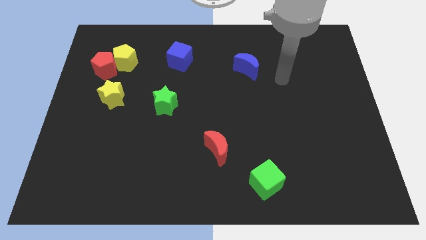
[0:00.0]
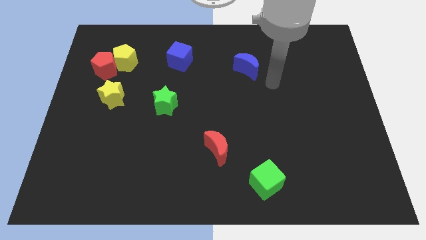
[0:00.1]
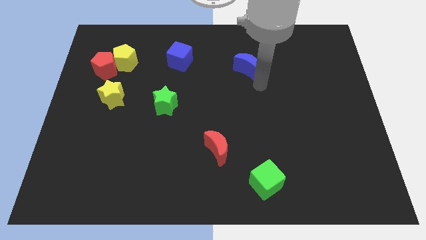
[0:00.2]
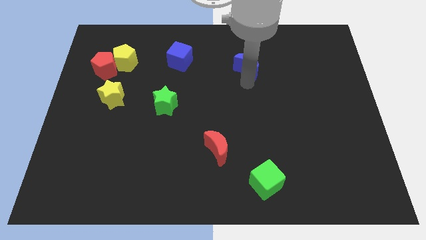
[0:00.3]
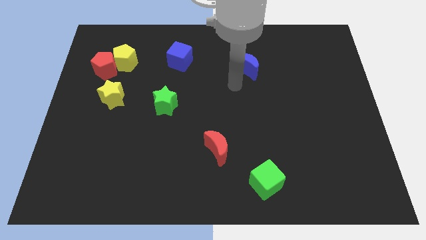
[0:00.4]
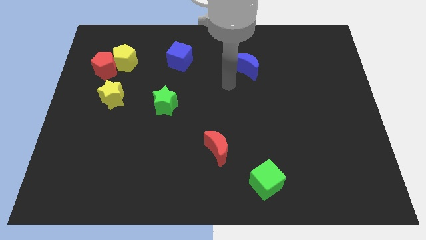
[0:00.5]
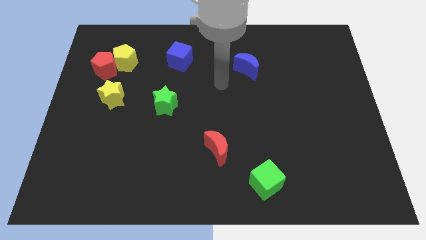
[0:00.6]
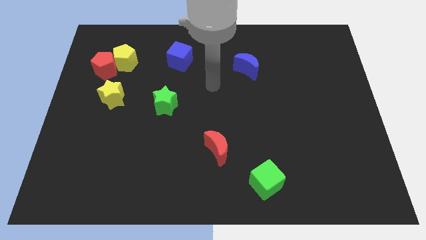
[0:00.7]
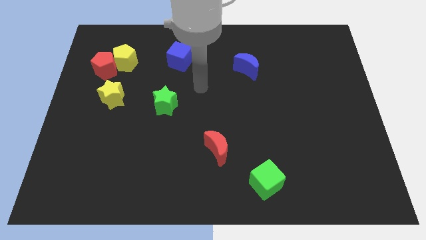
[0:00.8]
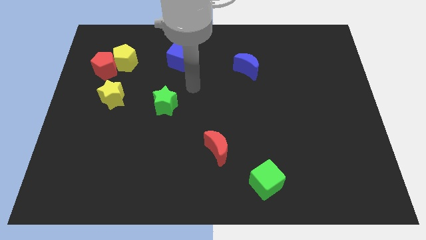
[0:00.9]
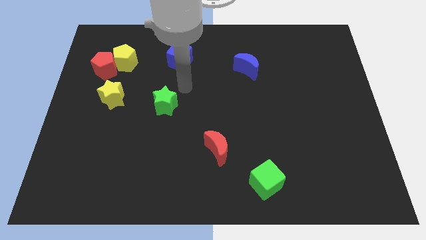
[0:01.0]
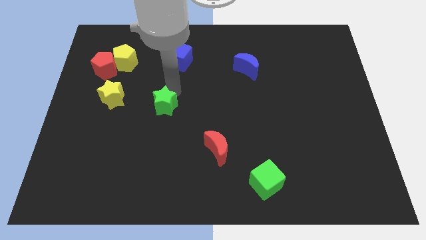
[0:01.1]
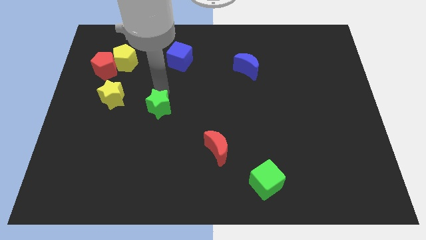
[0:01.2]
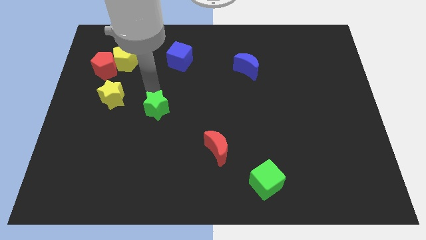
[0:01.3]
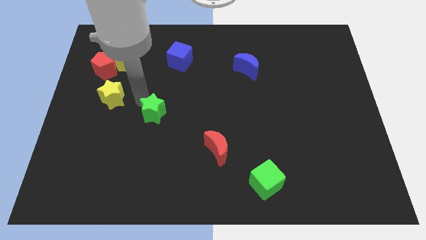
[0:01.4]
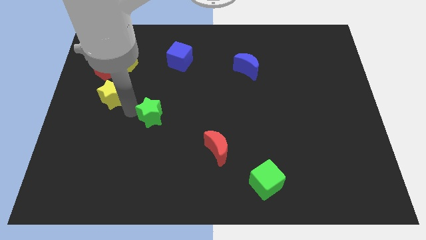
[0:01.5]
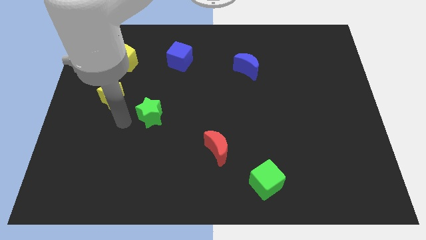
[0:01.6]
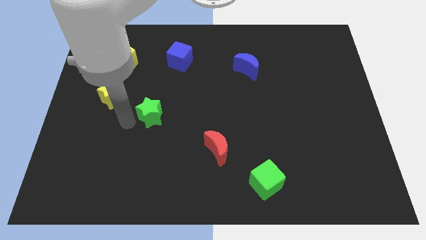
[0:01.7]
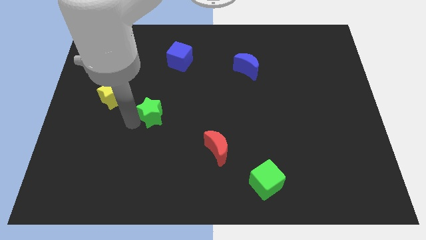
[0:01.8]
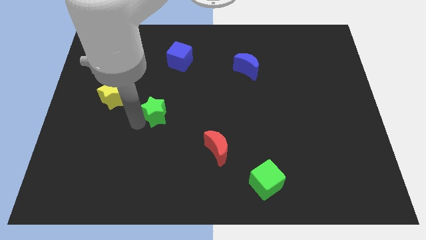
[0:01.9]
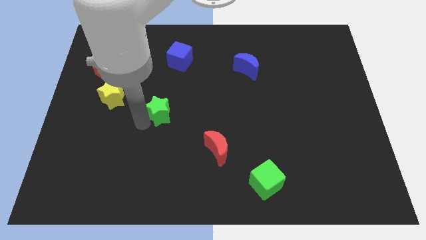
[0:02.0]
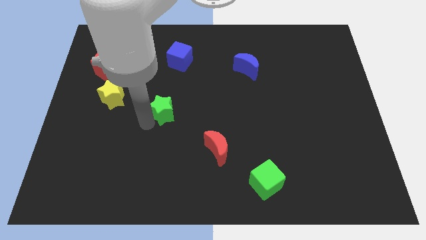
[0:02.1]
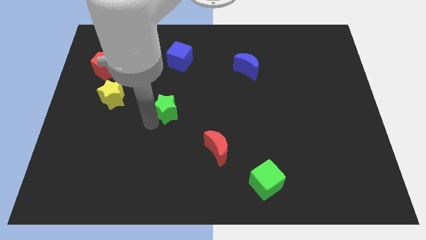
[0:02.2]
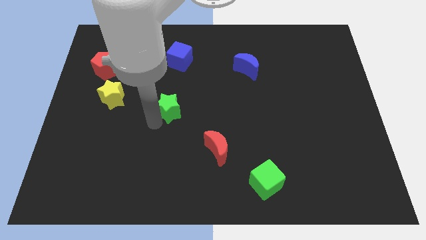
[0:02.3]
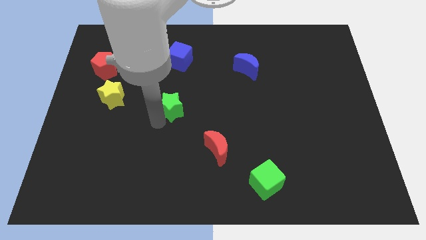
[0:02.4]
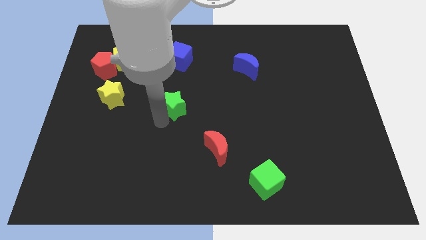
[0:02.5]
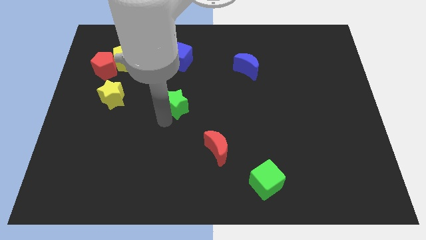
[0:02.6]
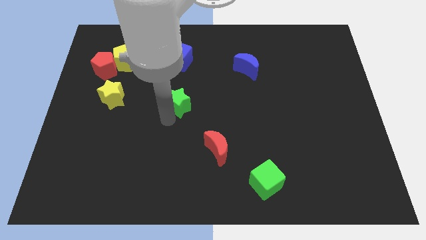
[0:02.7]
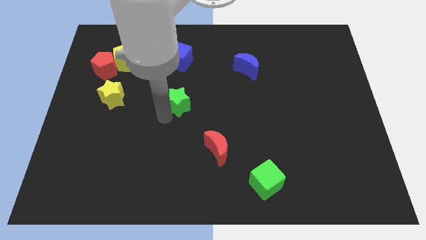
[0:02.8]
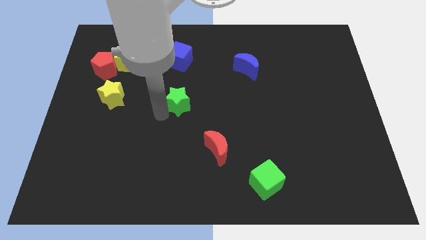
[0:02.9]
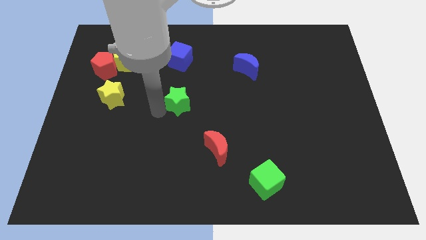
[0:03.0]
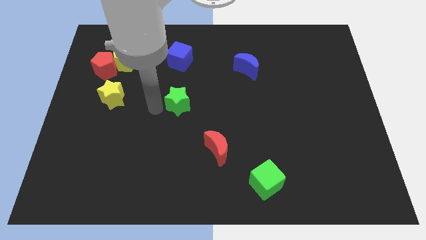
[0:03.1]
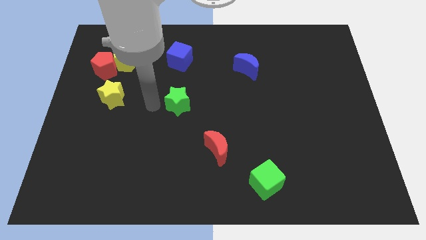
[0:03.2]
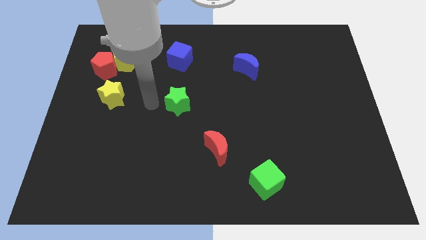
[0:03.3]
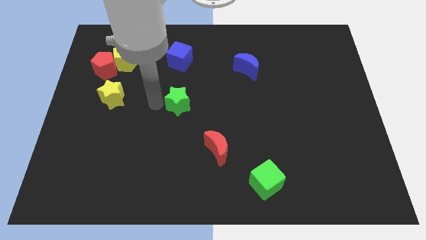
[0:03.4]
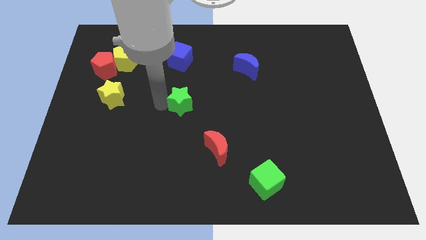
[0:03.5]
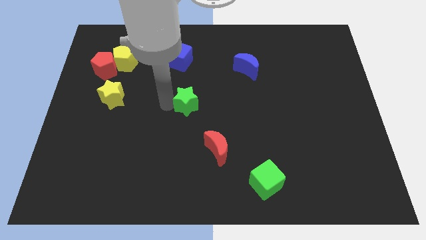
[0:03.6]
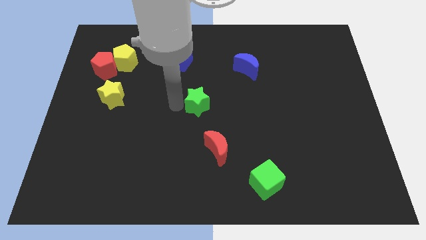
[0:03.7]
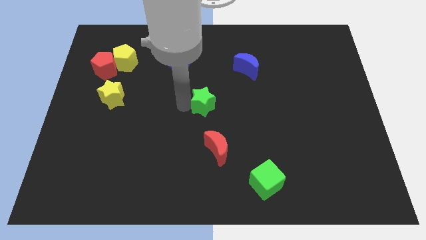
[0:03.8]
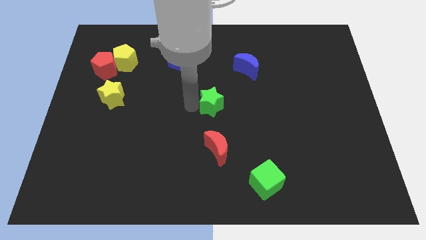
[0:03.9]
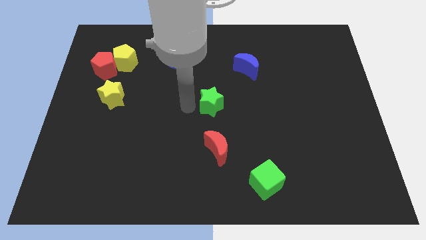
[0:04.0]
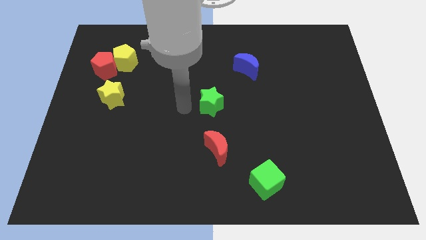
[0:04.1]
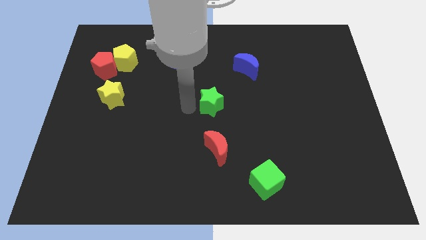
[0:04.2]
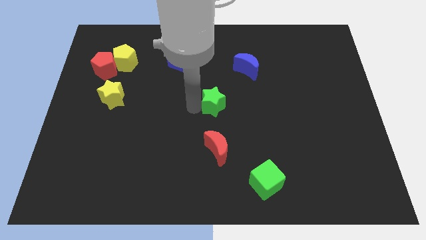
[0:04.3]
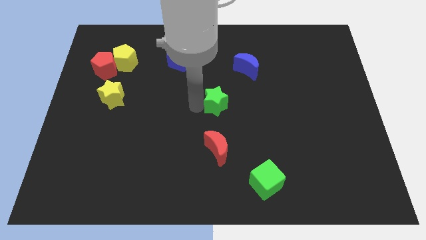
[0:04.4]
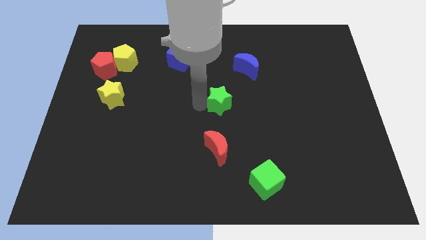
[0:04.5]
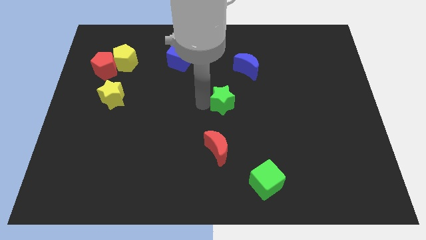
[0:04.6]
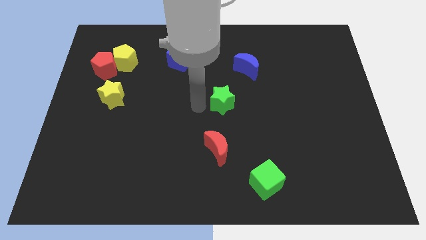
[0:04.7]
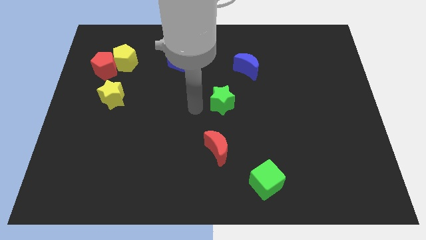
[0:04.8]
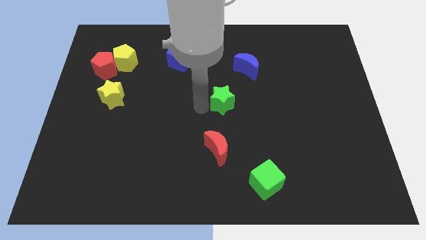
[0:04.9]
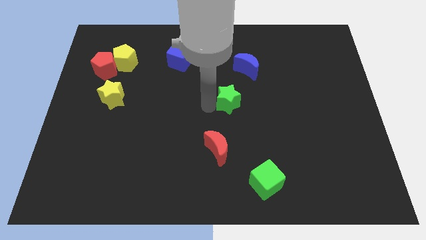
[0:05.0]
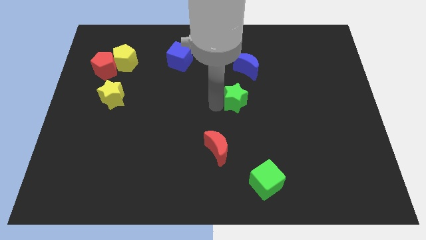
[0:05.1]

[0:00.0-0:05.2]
move the green star below the blue moon

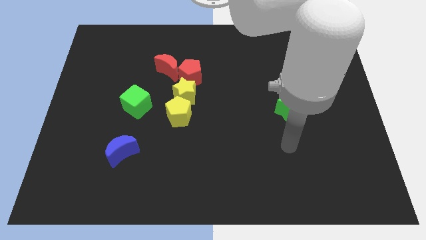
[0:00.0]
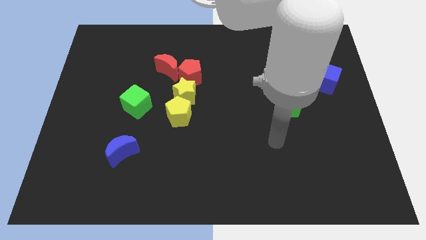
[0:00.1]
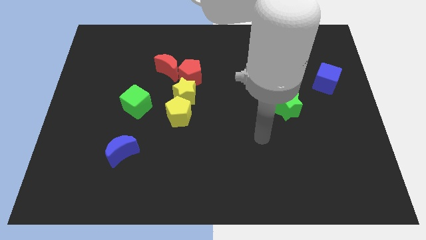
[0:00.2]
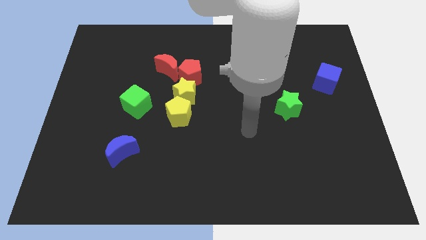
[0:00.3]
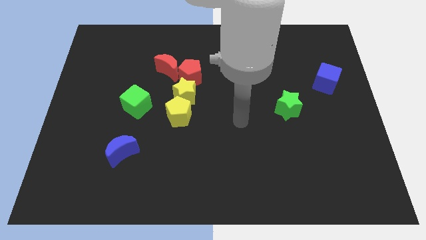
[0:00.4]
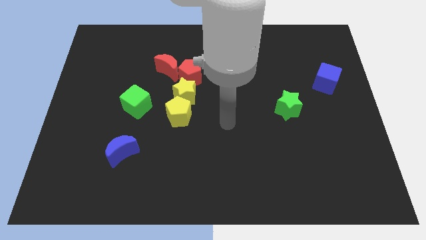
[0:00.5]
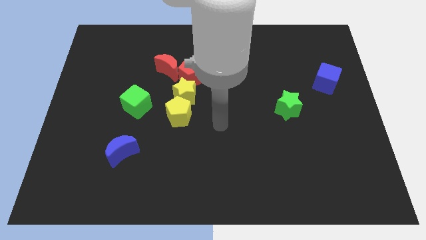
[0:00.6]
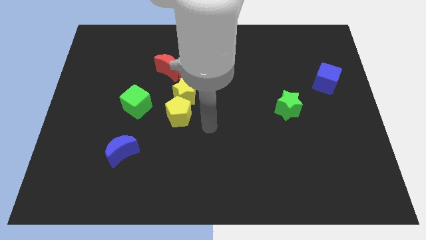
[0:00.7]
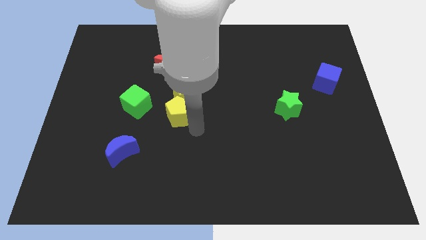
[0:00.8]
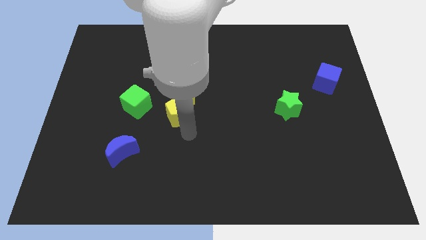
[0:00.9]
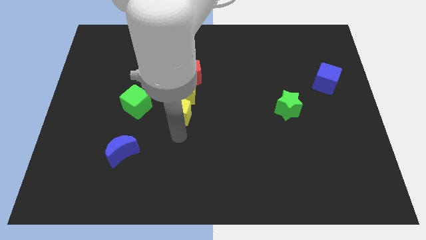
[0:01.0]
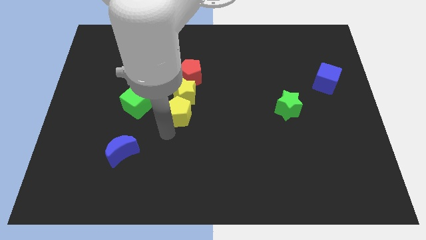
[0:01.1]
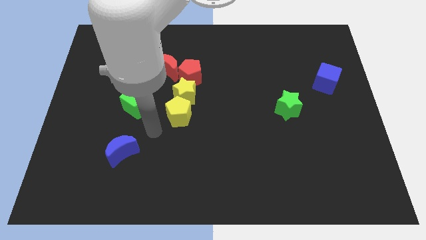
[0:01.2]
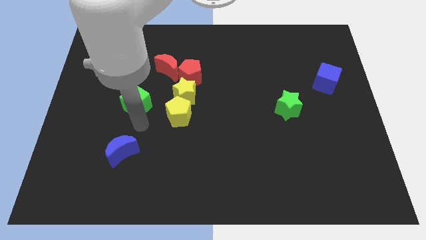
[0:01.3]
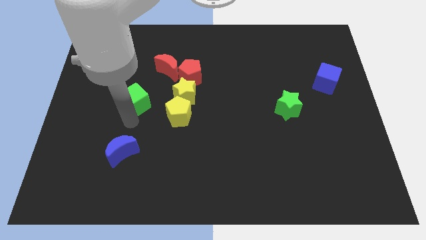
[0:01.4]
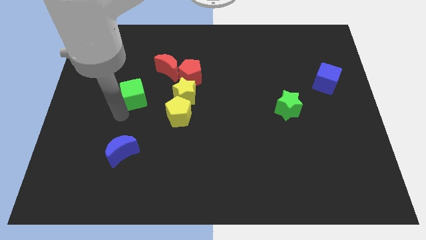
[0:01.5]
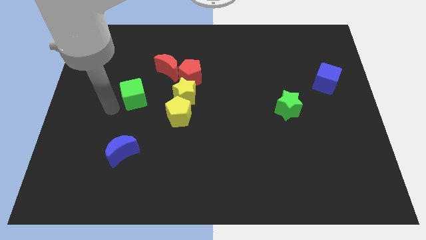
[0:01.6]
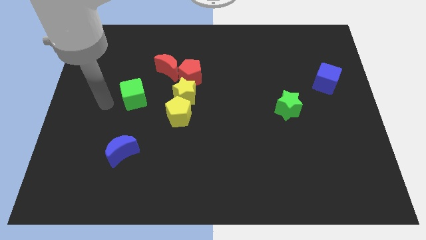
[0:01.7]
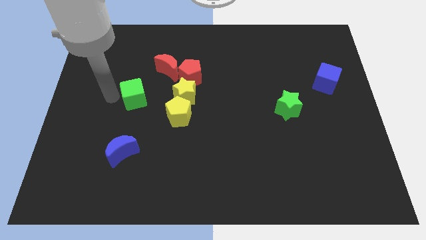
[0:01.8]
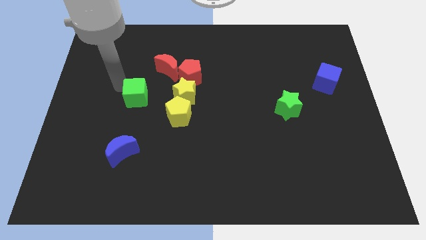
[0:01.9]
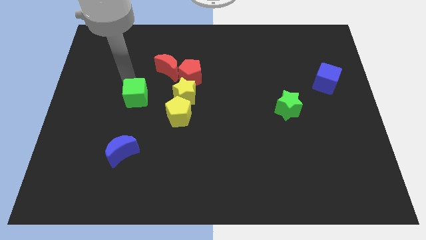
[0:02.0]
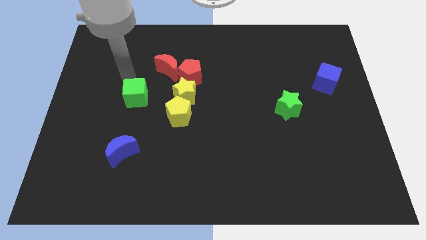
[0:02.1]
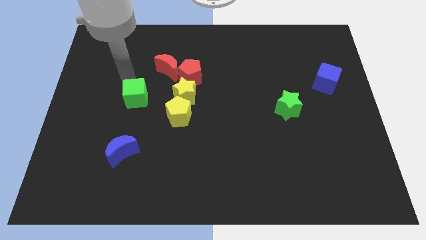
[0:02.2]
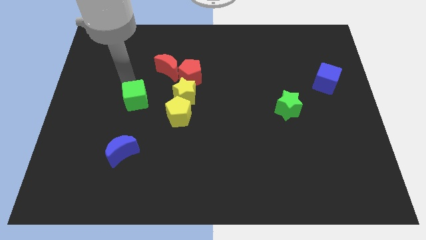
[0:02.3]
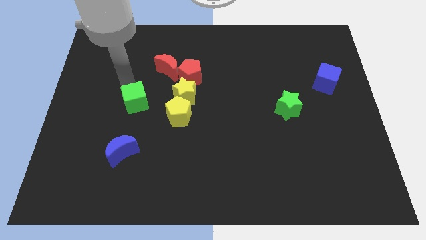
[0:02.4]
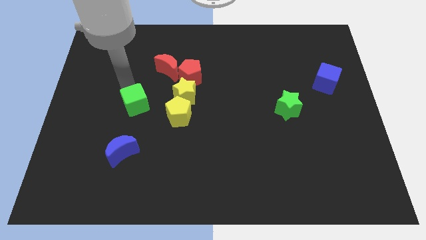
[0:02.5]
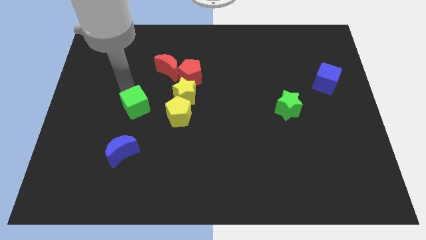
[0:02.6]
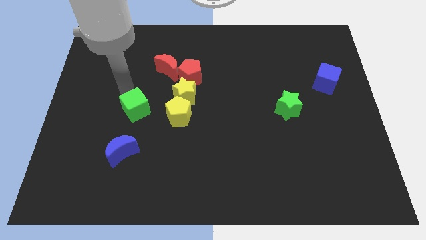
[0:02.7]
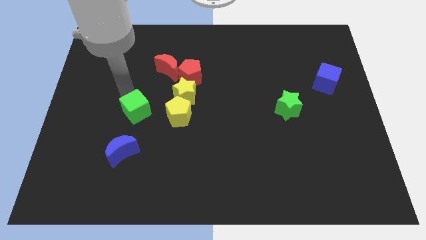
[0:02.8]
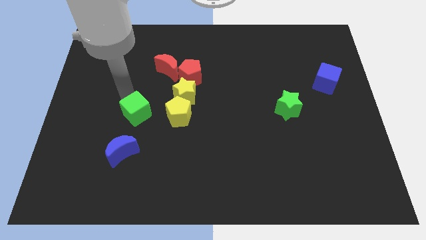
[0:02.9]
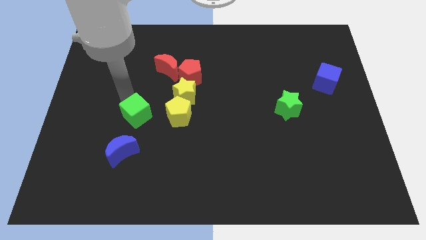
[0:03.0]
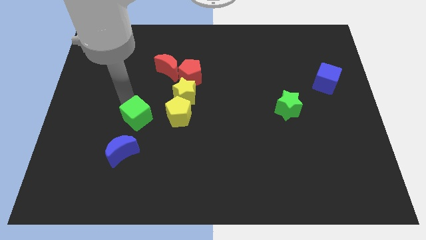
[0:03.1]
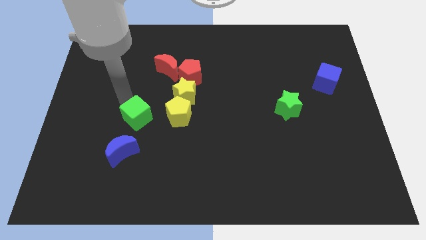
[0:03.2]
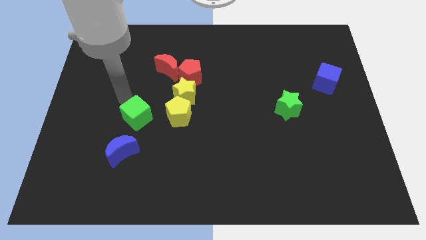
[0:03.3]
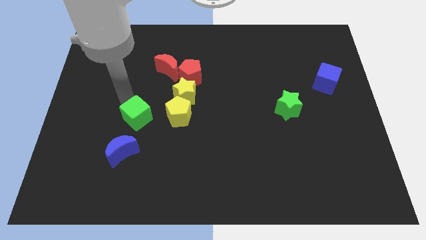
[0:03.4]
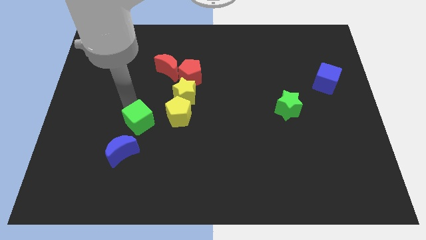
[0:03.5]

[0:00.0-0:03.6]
push the green cube diagonally up and to the right of the blue moon
